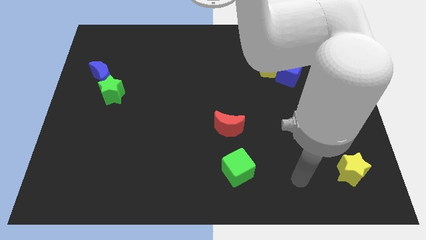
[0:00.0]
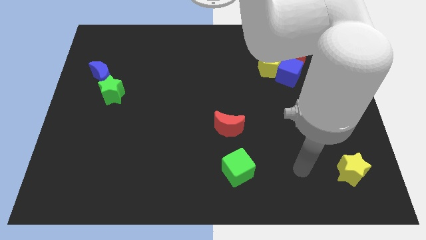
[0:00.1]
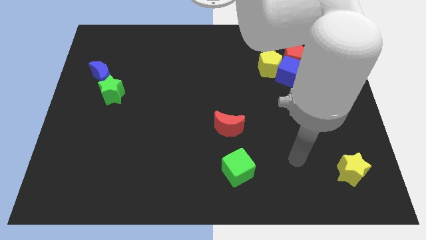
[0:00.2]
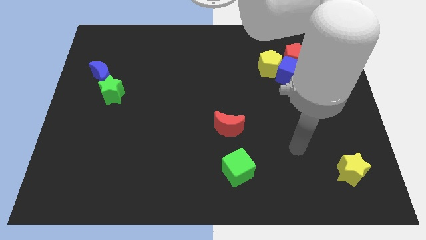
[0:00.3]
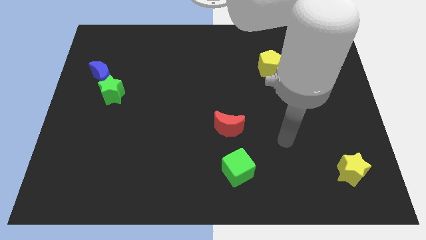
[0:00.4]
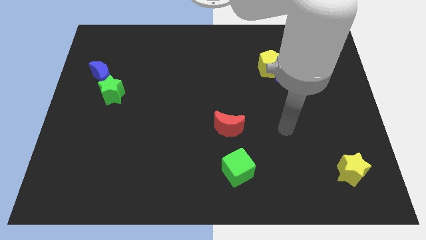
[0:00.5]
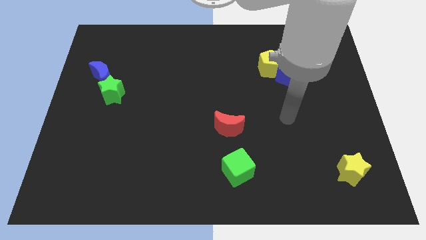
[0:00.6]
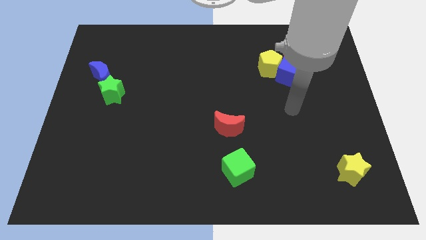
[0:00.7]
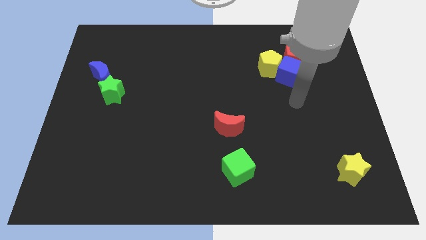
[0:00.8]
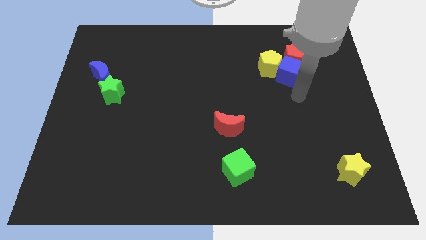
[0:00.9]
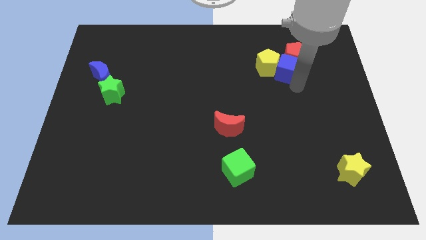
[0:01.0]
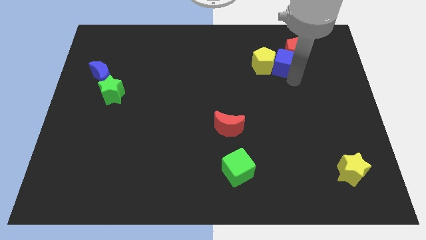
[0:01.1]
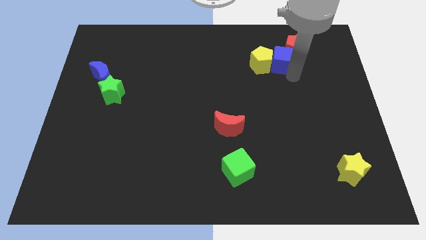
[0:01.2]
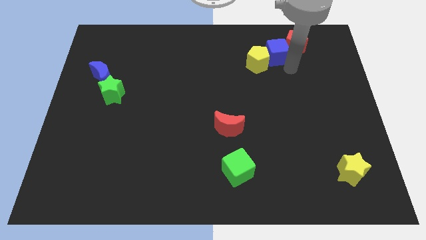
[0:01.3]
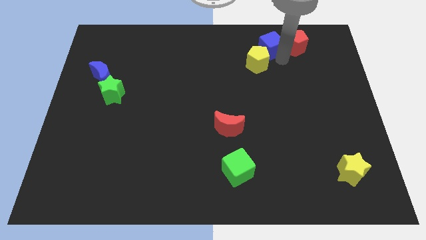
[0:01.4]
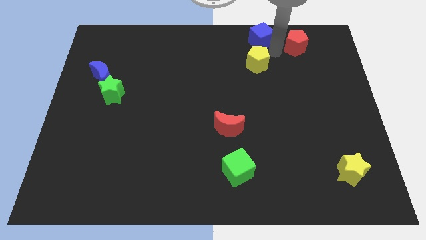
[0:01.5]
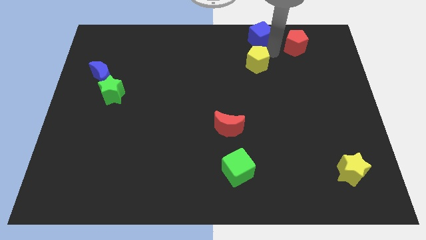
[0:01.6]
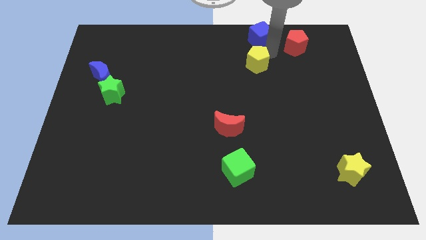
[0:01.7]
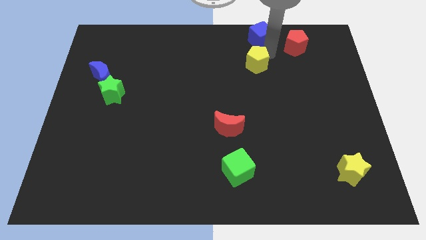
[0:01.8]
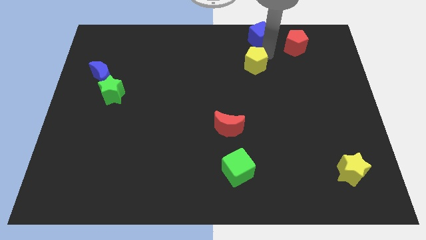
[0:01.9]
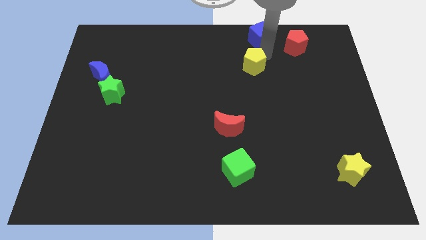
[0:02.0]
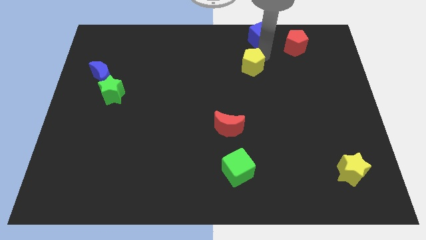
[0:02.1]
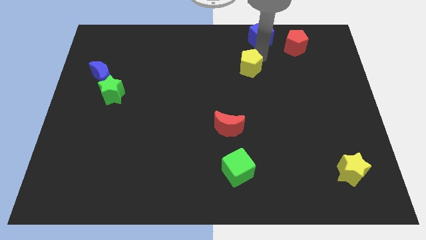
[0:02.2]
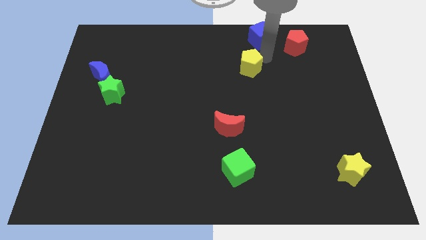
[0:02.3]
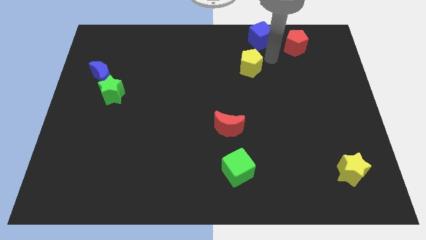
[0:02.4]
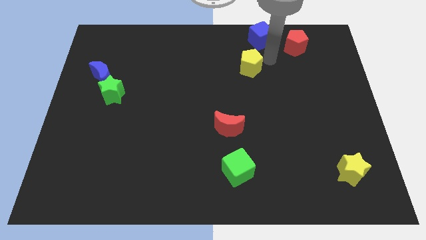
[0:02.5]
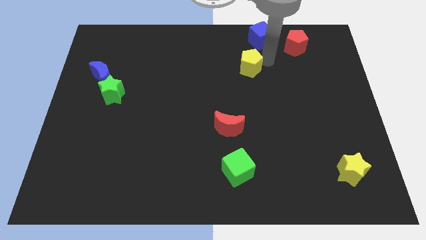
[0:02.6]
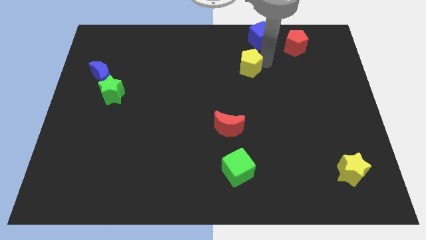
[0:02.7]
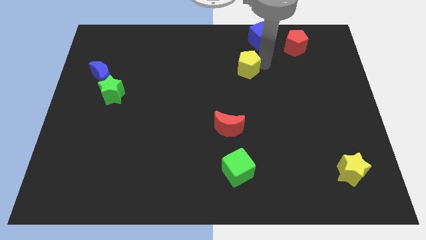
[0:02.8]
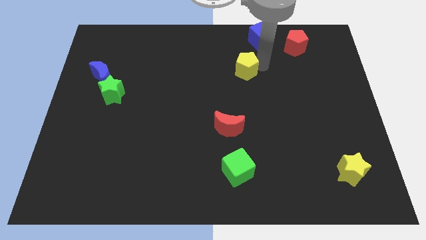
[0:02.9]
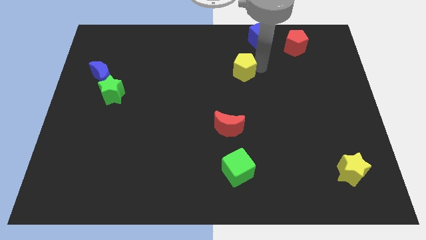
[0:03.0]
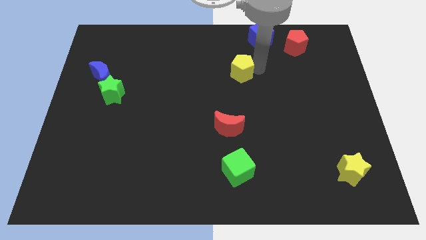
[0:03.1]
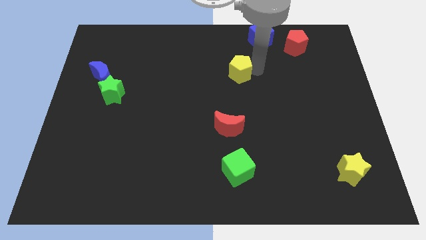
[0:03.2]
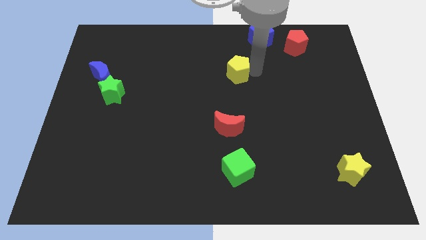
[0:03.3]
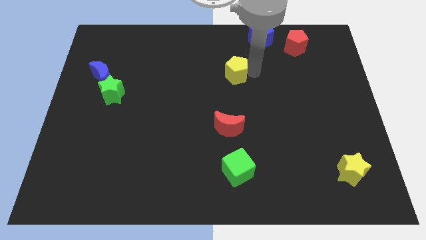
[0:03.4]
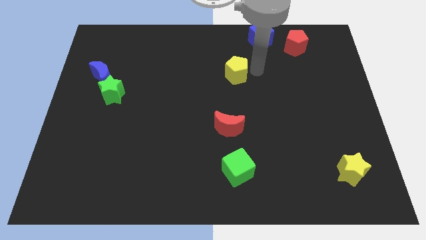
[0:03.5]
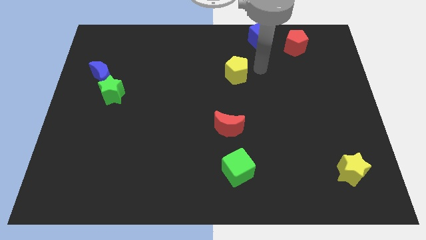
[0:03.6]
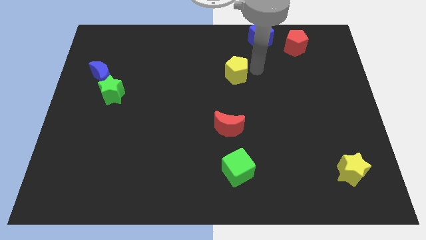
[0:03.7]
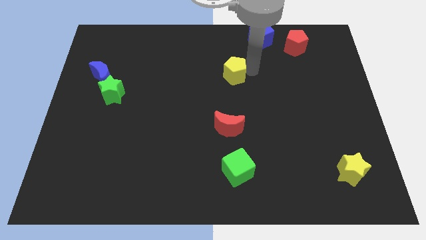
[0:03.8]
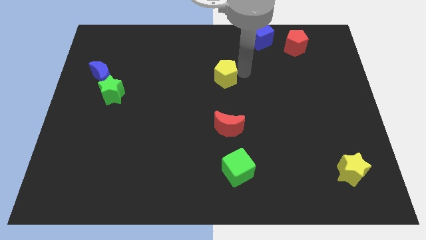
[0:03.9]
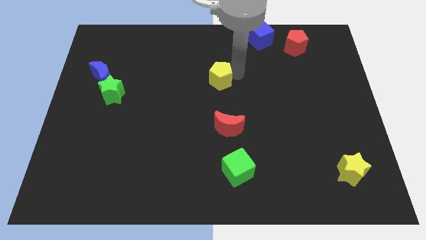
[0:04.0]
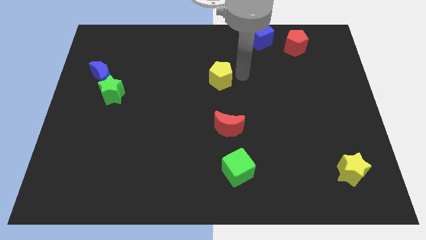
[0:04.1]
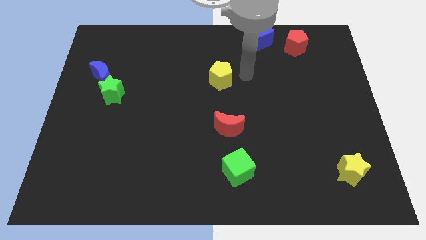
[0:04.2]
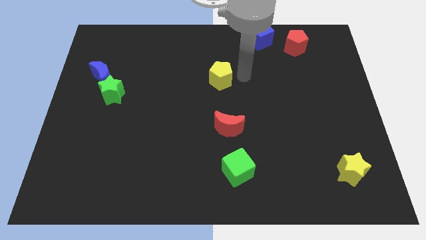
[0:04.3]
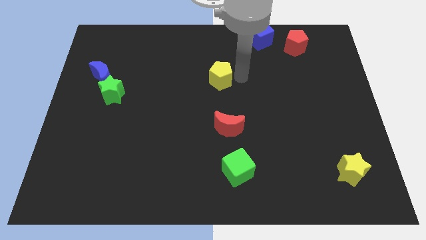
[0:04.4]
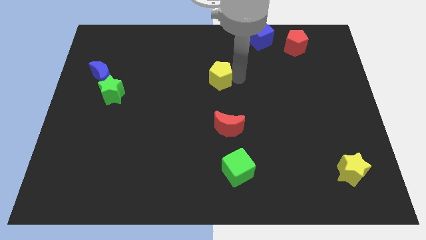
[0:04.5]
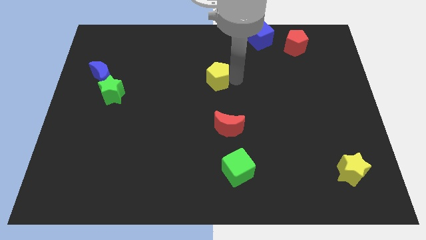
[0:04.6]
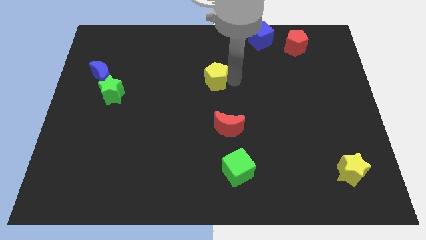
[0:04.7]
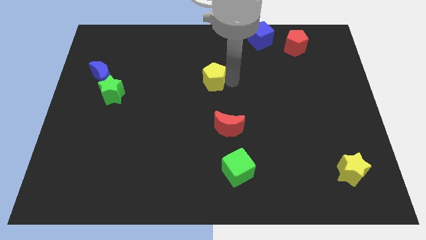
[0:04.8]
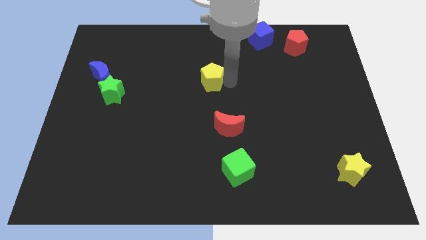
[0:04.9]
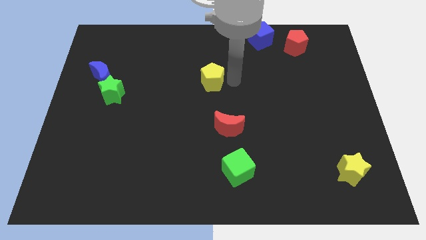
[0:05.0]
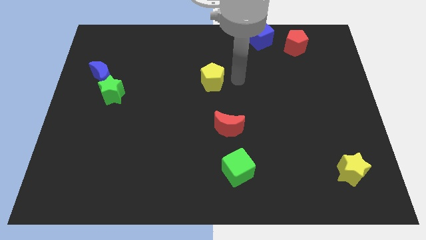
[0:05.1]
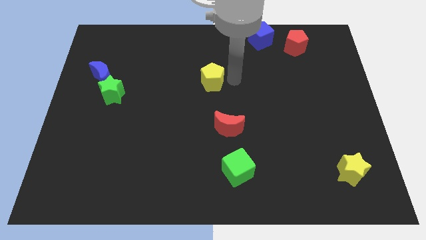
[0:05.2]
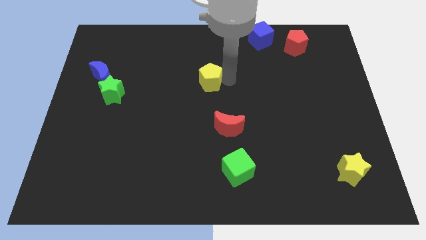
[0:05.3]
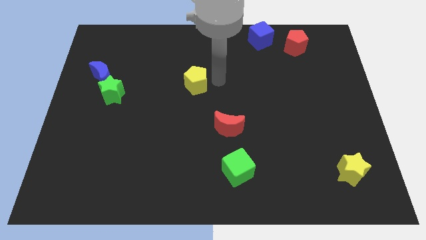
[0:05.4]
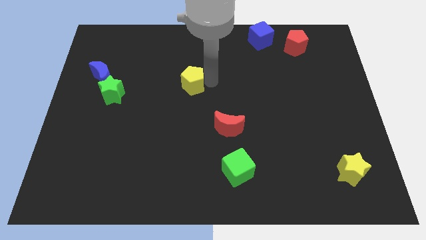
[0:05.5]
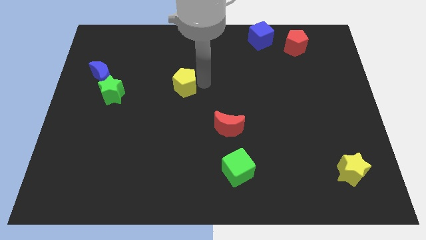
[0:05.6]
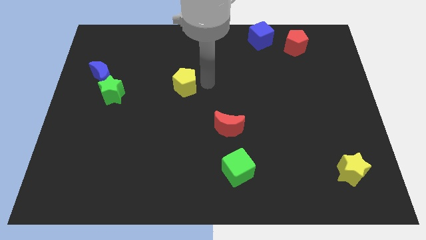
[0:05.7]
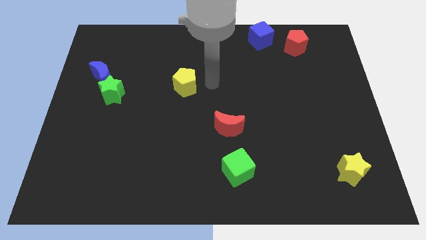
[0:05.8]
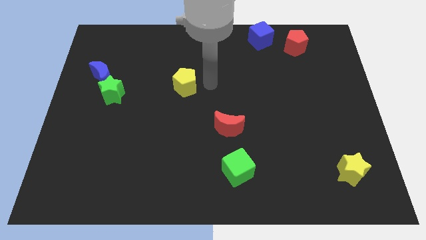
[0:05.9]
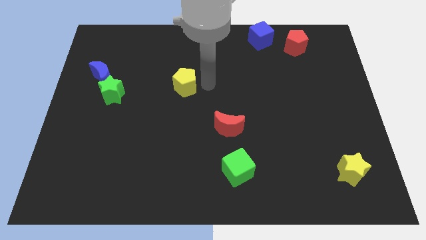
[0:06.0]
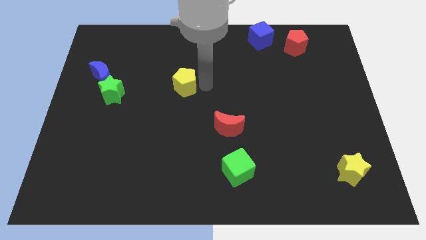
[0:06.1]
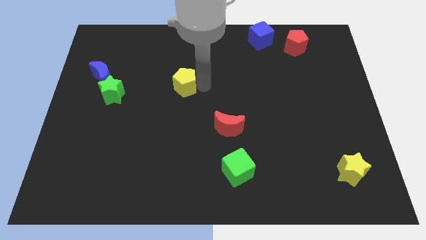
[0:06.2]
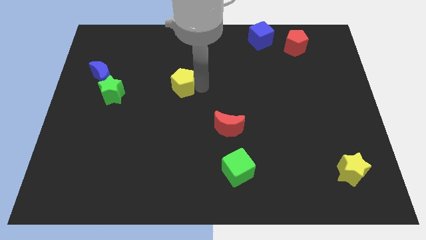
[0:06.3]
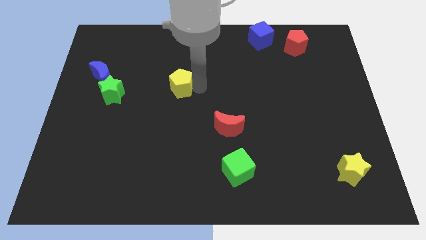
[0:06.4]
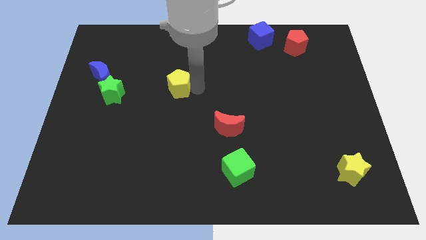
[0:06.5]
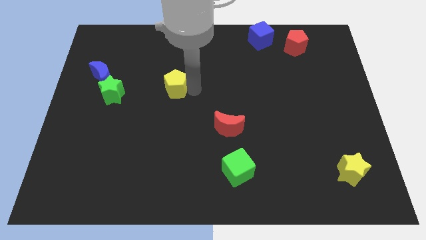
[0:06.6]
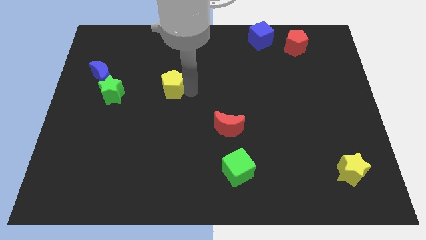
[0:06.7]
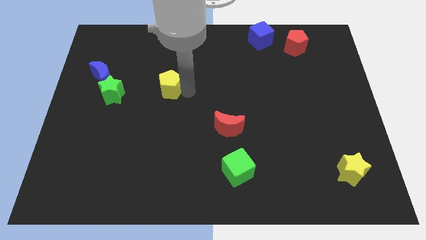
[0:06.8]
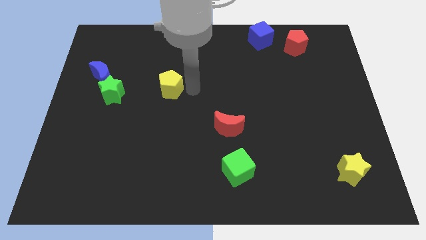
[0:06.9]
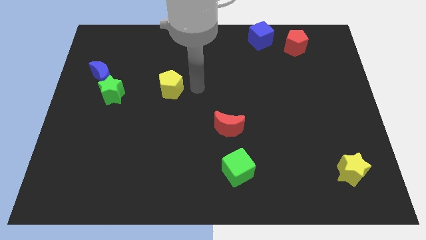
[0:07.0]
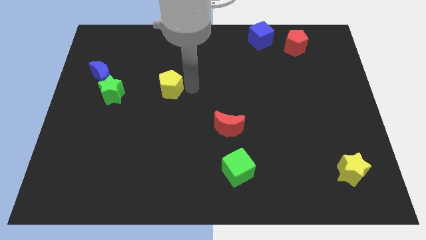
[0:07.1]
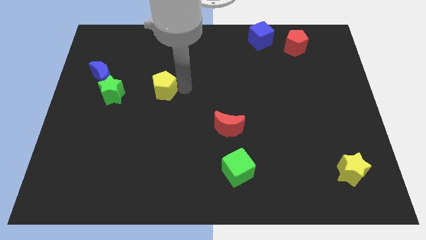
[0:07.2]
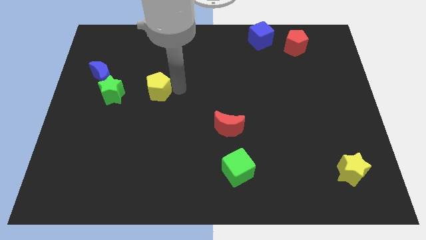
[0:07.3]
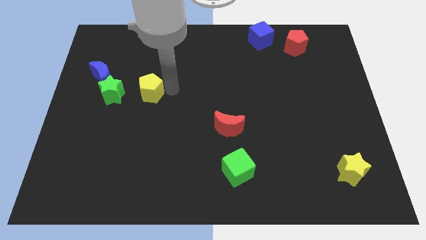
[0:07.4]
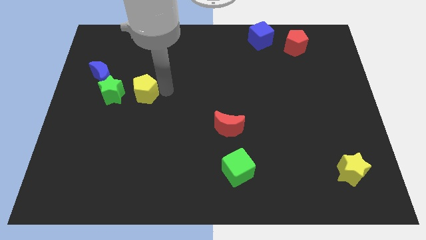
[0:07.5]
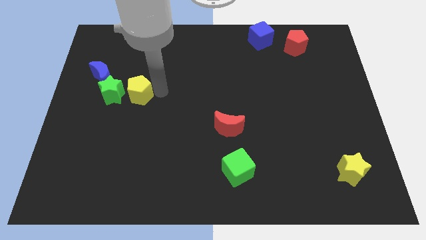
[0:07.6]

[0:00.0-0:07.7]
put the yellow pentagon to the green star
